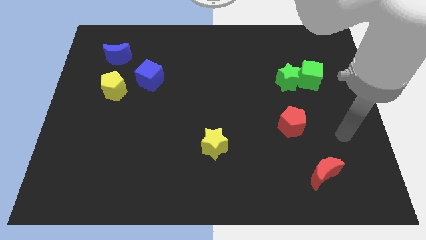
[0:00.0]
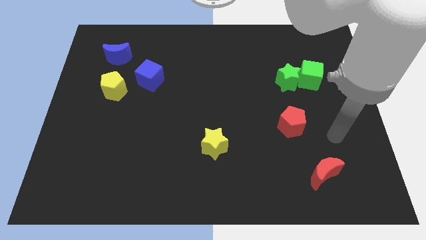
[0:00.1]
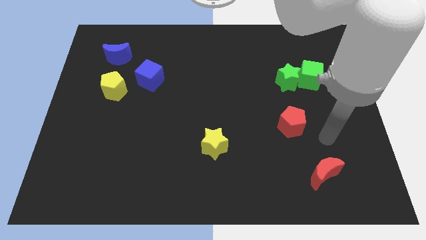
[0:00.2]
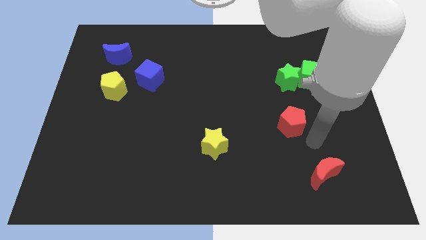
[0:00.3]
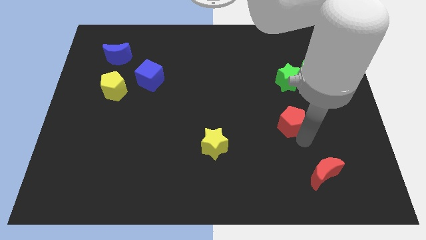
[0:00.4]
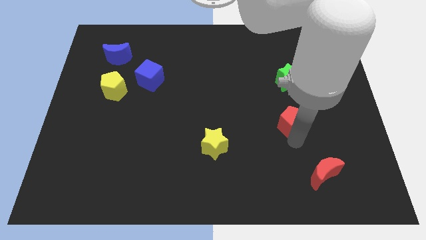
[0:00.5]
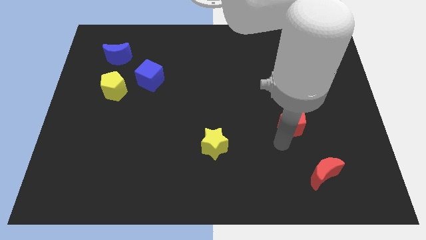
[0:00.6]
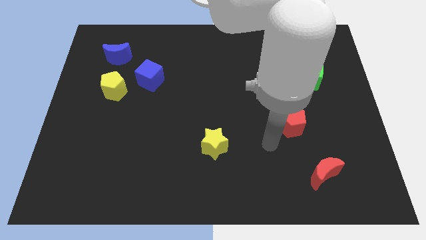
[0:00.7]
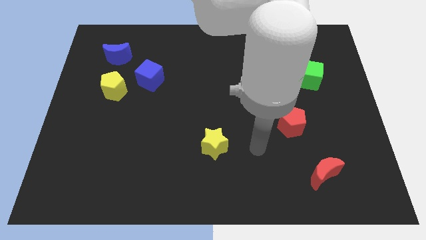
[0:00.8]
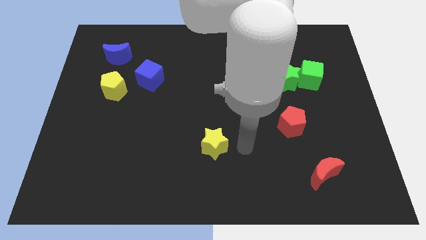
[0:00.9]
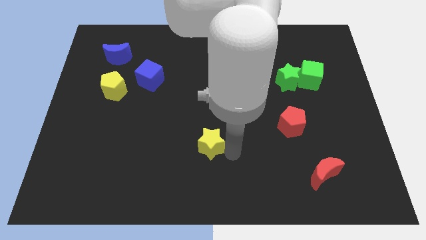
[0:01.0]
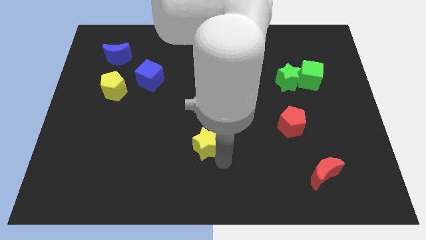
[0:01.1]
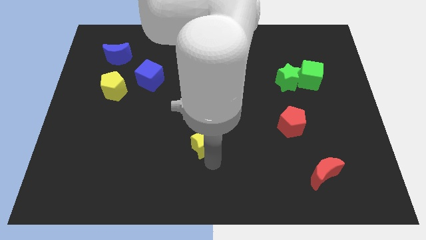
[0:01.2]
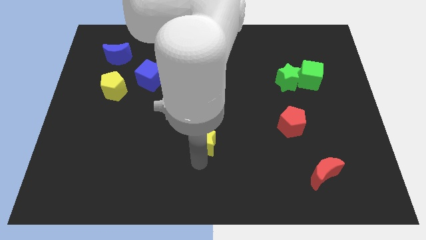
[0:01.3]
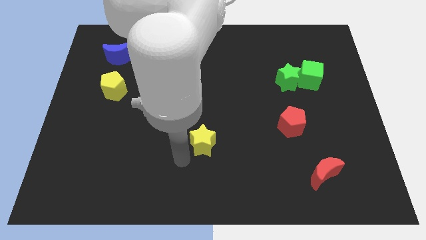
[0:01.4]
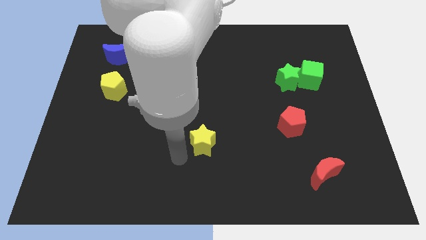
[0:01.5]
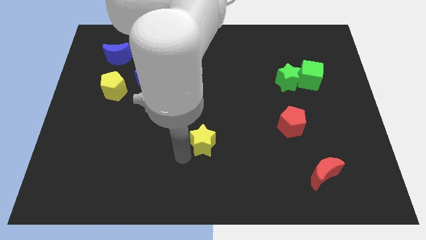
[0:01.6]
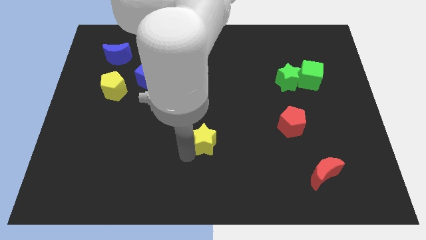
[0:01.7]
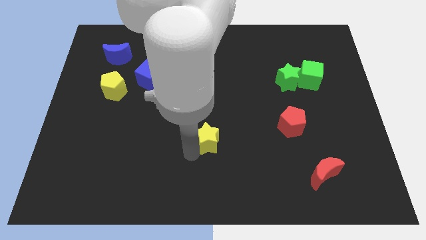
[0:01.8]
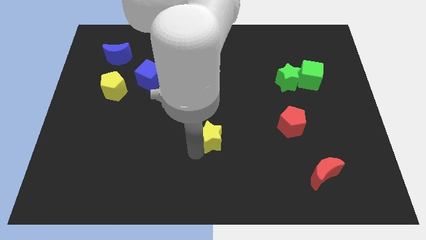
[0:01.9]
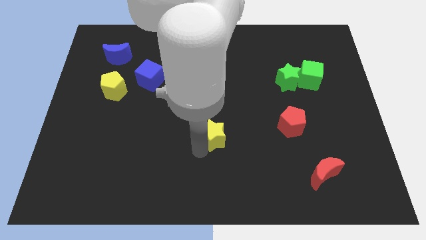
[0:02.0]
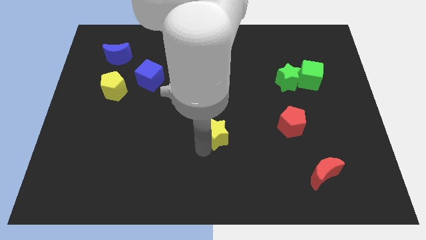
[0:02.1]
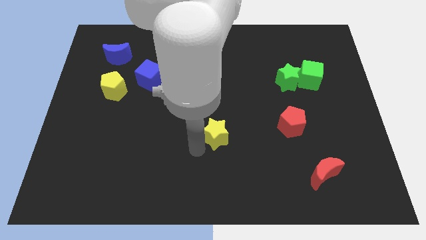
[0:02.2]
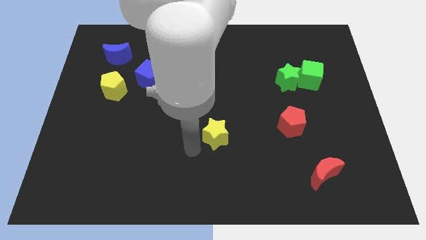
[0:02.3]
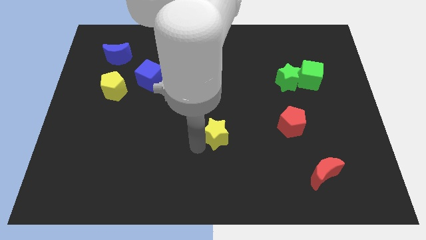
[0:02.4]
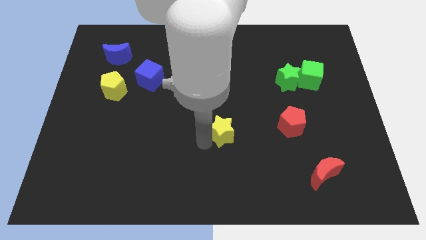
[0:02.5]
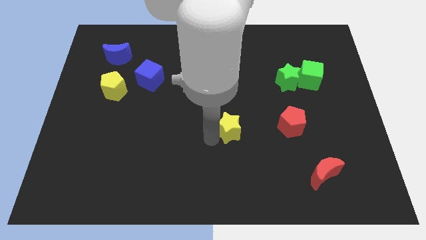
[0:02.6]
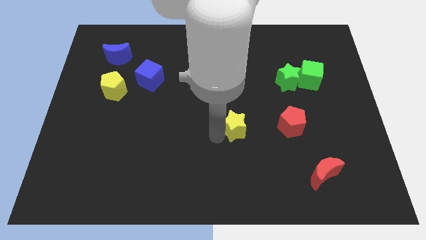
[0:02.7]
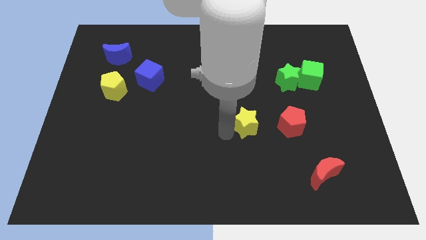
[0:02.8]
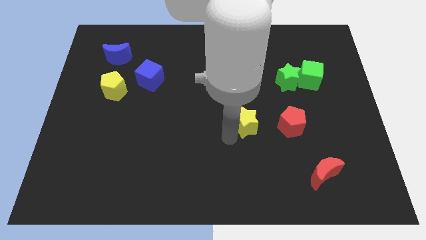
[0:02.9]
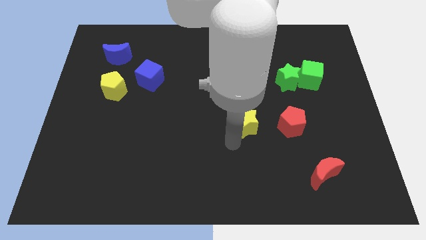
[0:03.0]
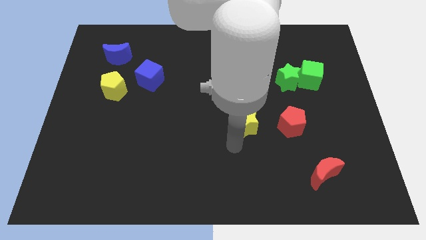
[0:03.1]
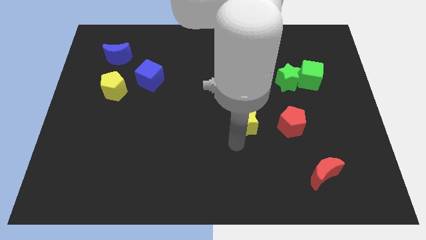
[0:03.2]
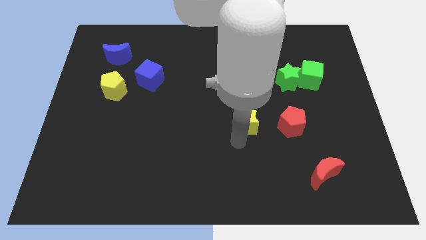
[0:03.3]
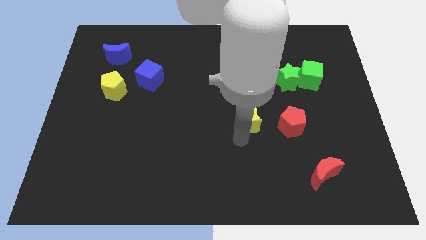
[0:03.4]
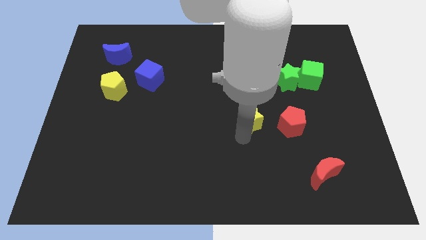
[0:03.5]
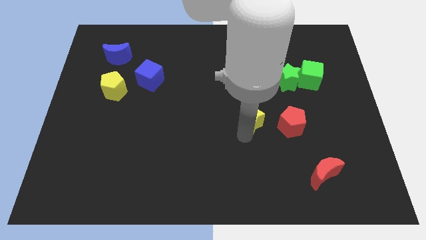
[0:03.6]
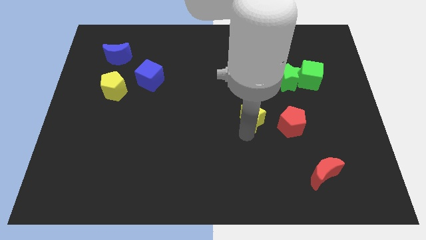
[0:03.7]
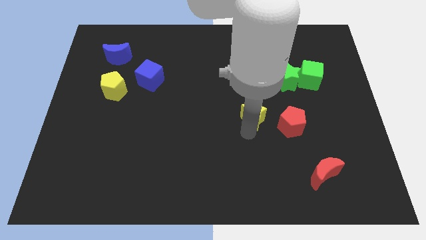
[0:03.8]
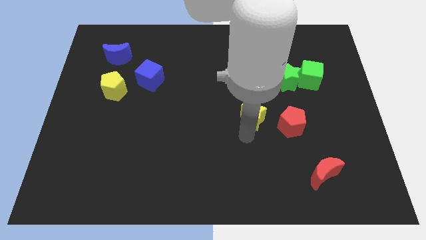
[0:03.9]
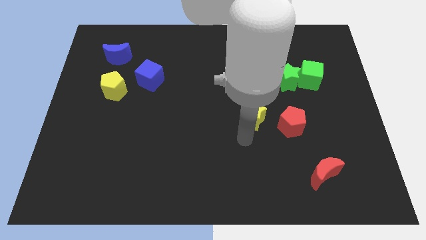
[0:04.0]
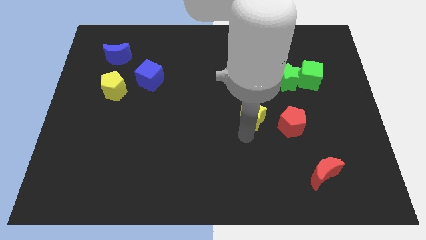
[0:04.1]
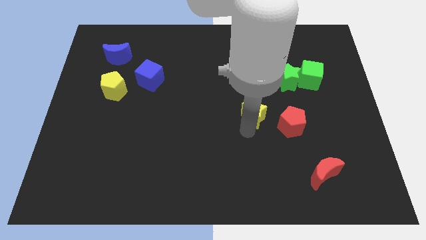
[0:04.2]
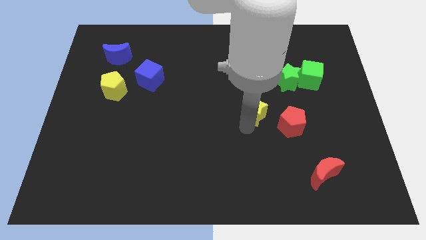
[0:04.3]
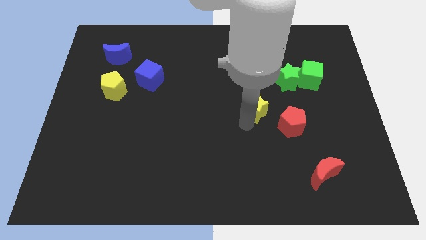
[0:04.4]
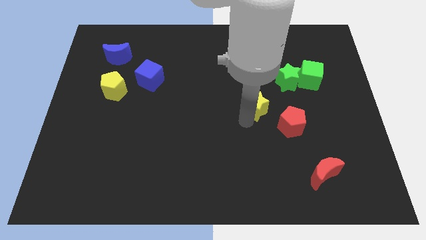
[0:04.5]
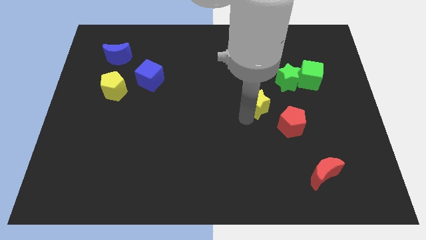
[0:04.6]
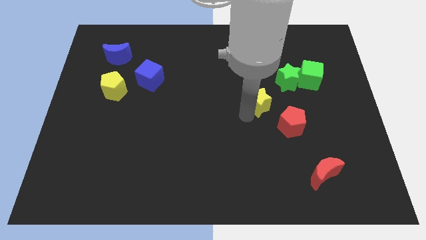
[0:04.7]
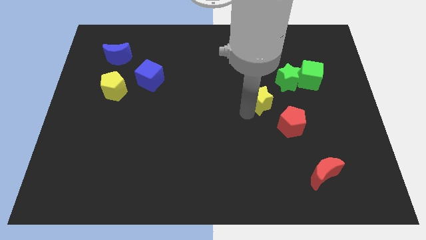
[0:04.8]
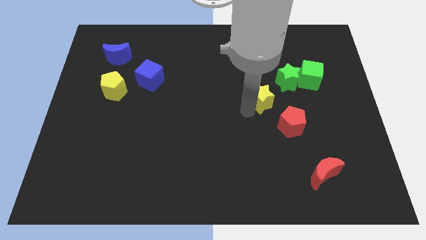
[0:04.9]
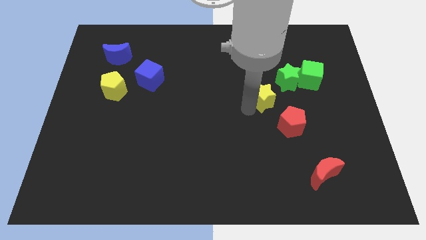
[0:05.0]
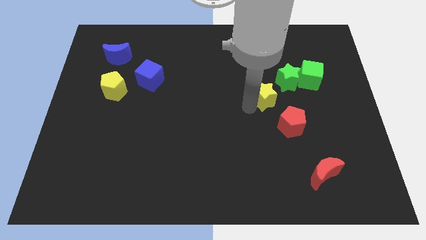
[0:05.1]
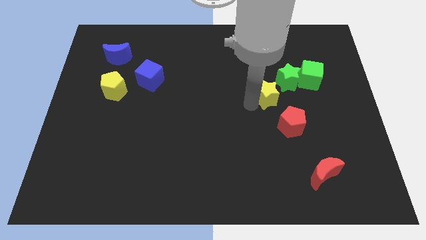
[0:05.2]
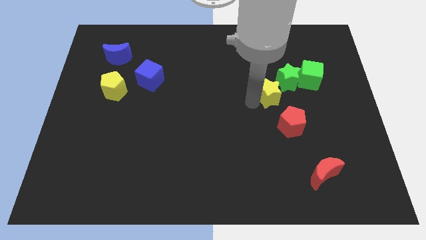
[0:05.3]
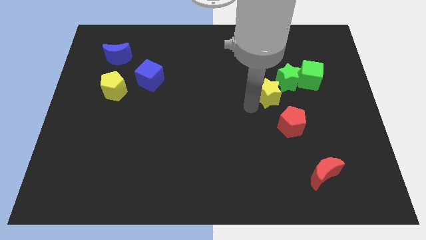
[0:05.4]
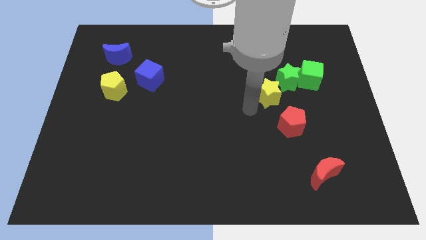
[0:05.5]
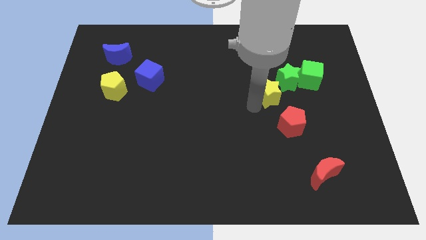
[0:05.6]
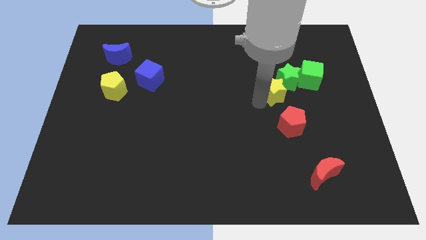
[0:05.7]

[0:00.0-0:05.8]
put the yellow star to the green star

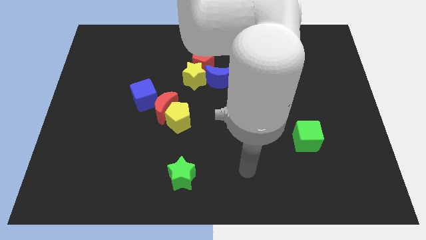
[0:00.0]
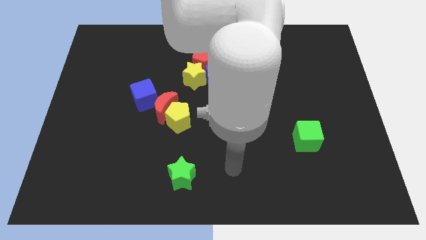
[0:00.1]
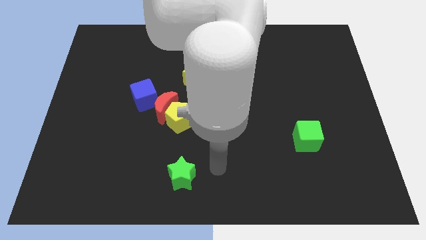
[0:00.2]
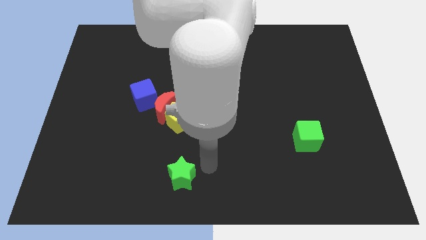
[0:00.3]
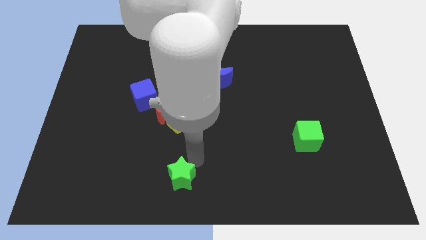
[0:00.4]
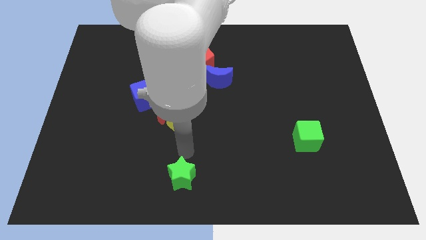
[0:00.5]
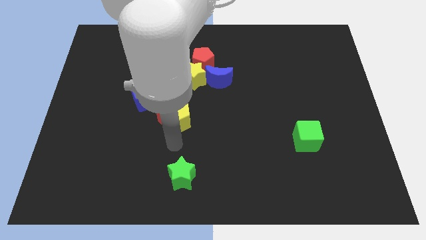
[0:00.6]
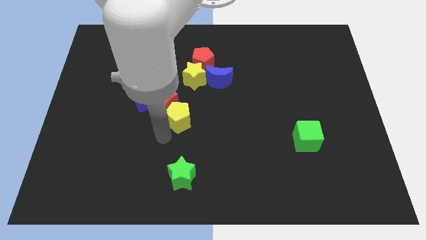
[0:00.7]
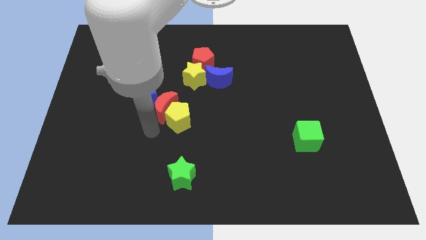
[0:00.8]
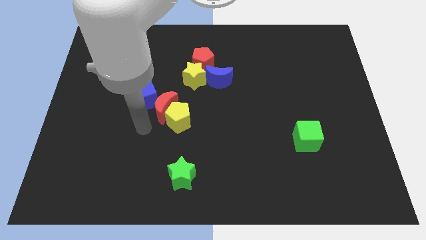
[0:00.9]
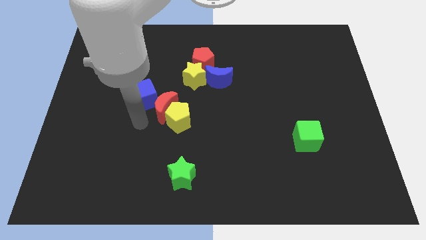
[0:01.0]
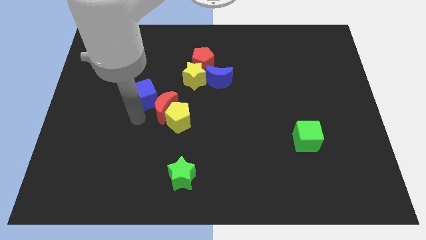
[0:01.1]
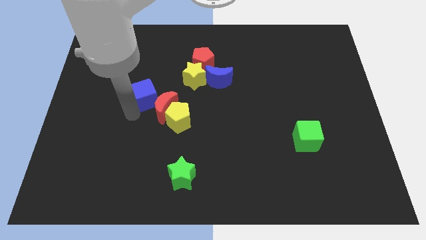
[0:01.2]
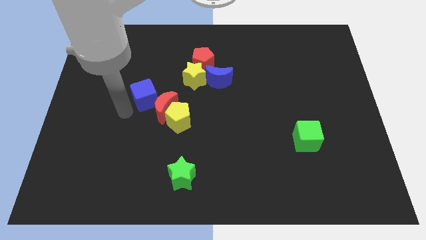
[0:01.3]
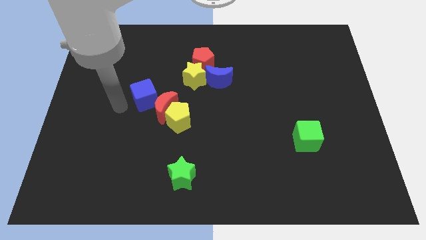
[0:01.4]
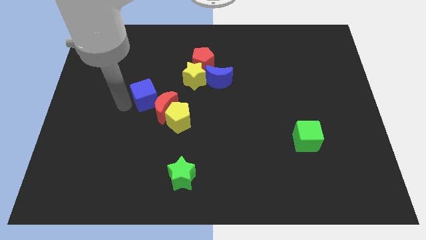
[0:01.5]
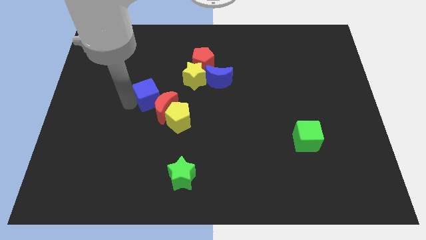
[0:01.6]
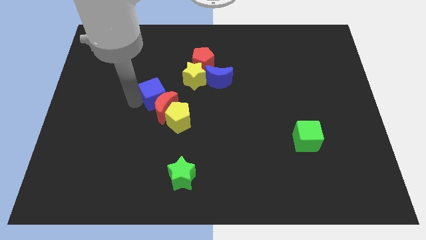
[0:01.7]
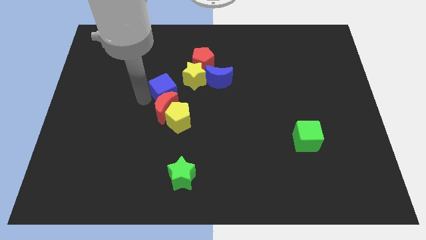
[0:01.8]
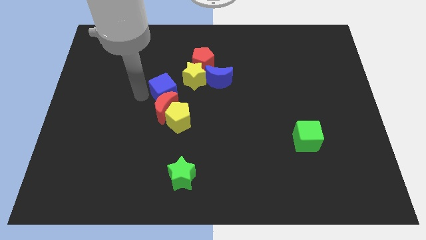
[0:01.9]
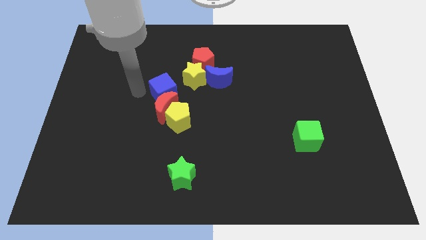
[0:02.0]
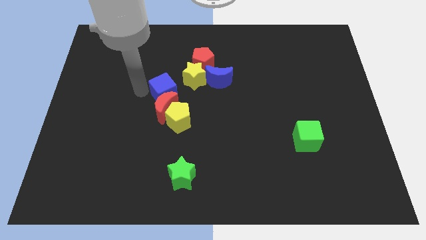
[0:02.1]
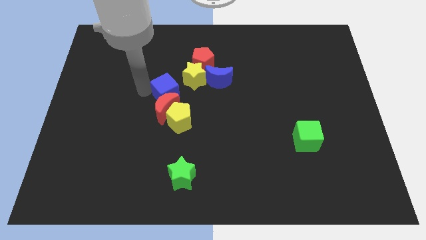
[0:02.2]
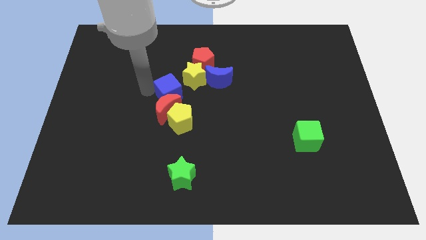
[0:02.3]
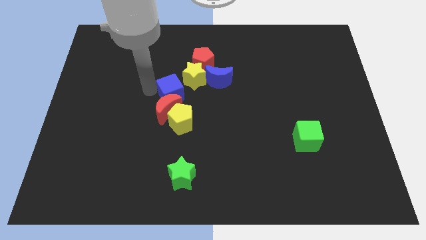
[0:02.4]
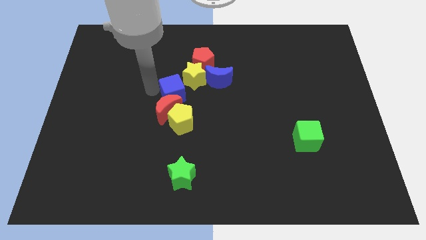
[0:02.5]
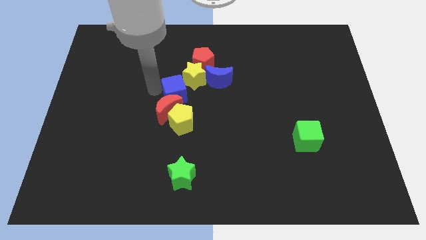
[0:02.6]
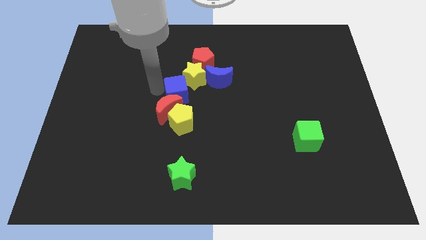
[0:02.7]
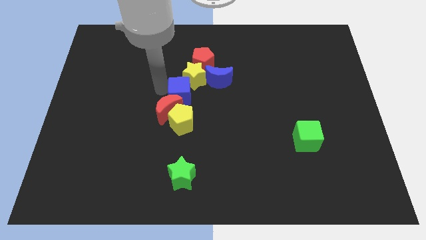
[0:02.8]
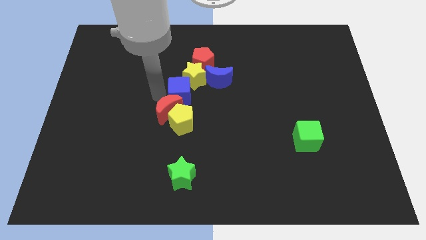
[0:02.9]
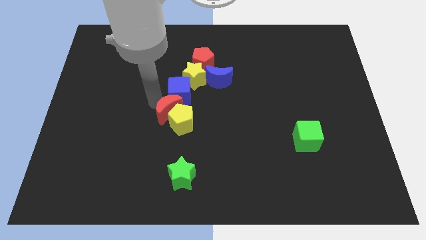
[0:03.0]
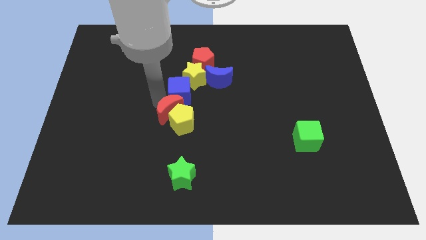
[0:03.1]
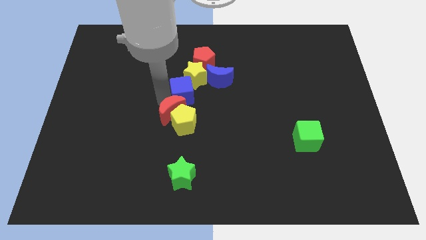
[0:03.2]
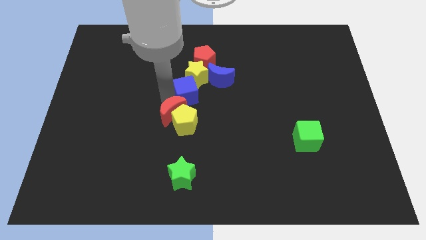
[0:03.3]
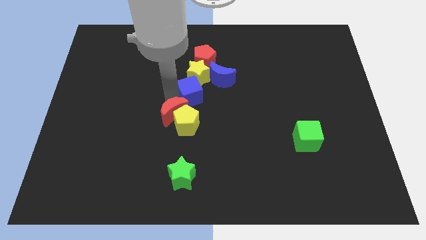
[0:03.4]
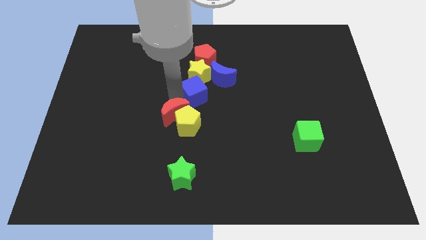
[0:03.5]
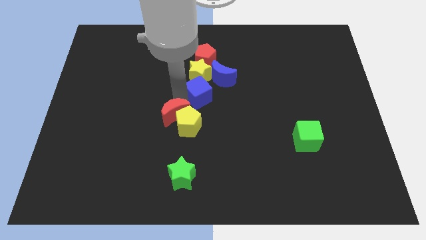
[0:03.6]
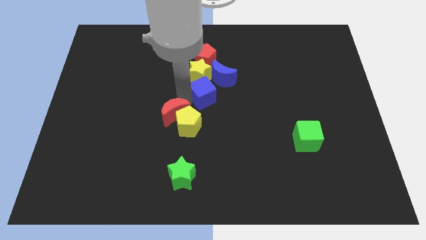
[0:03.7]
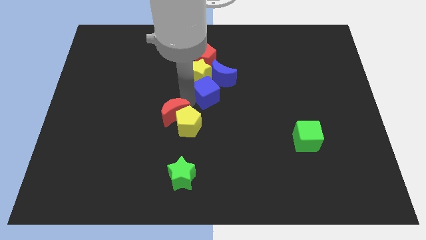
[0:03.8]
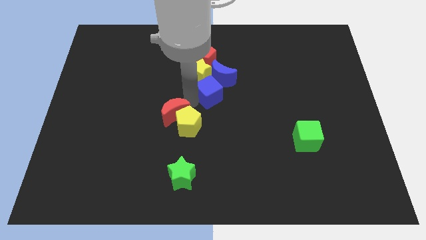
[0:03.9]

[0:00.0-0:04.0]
move the blue cube to the blue moon
